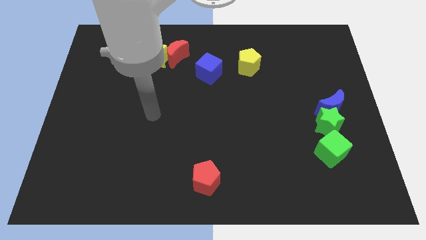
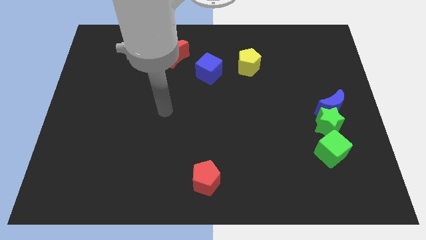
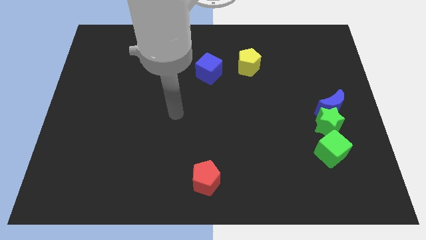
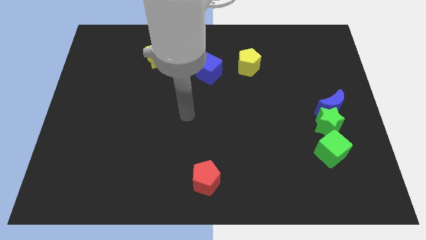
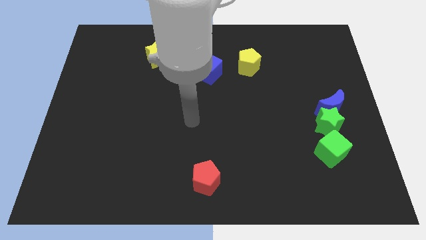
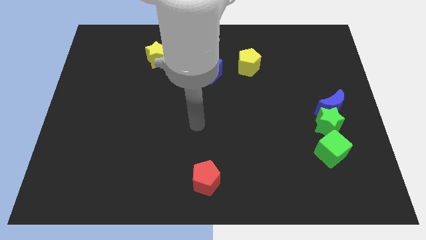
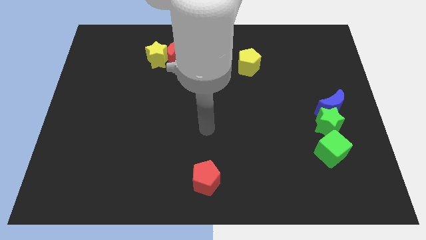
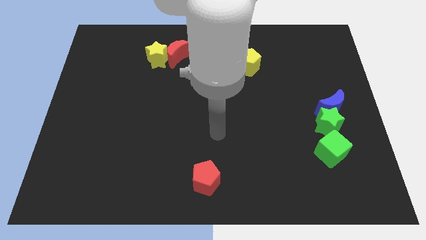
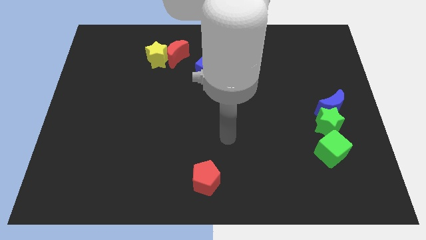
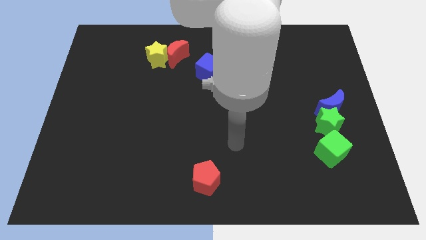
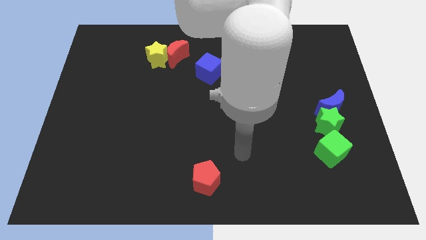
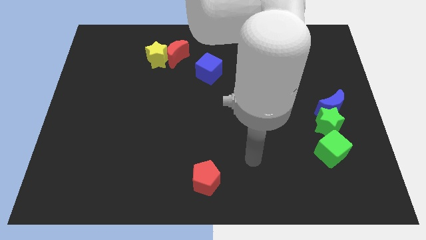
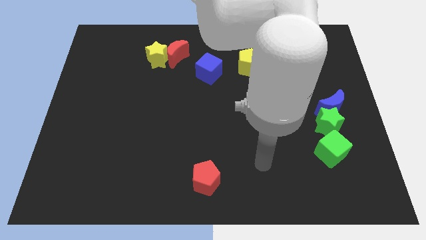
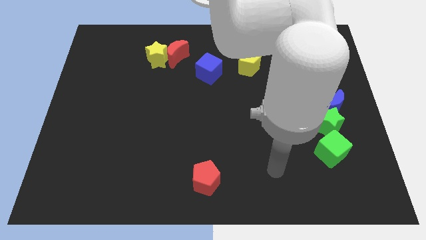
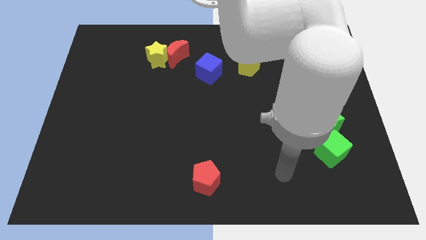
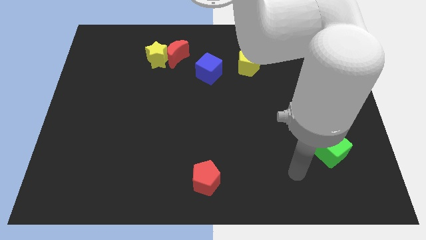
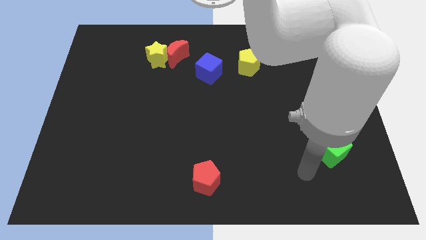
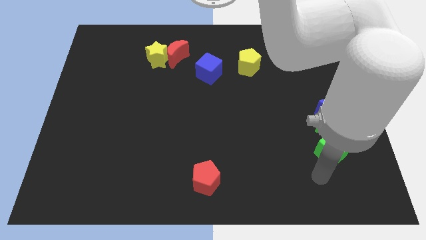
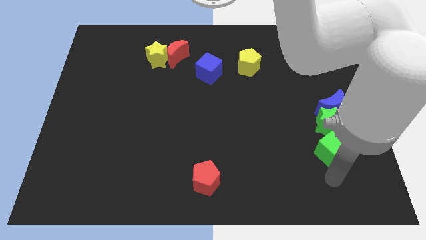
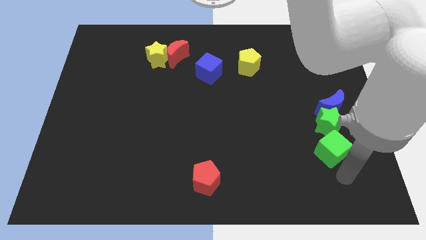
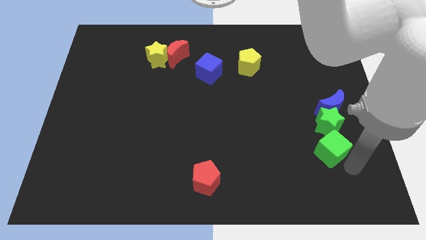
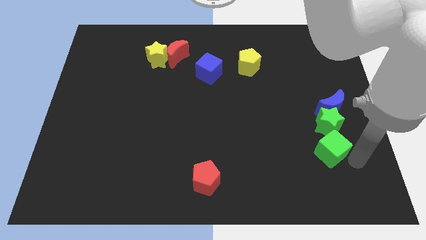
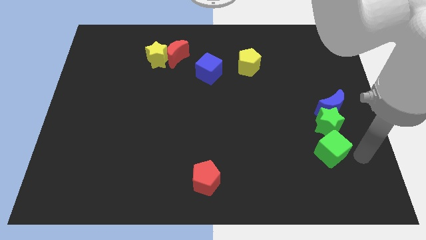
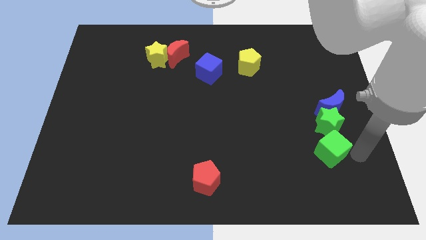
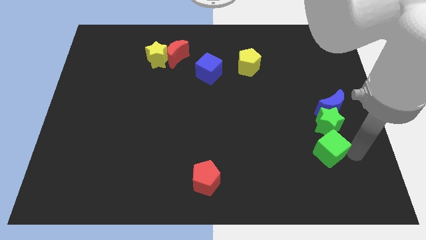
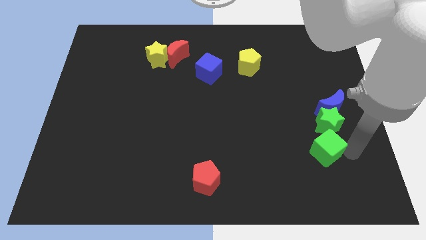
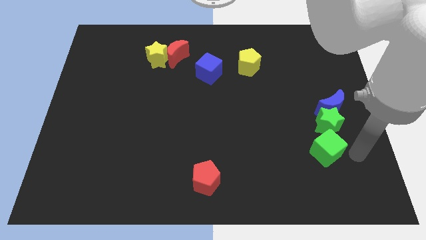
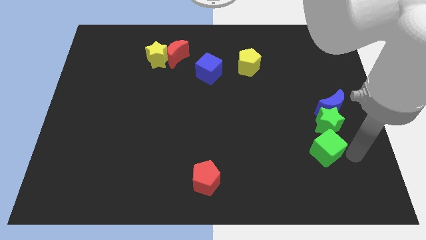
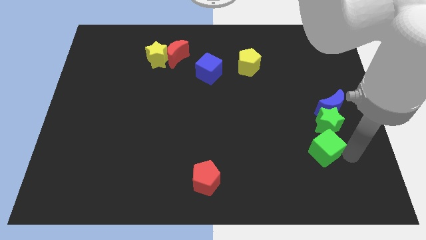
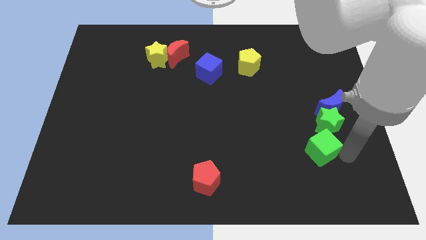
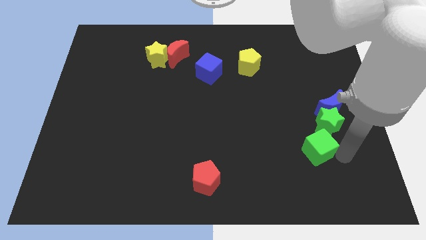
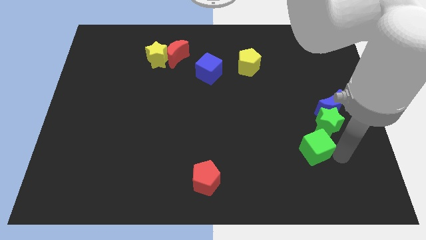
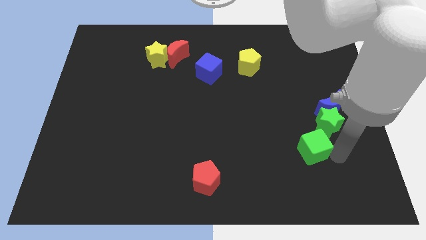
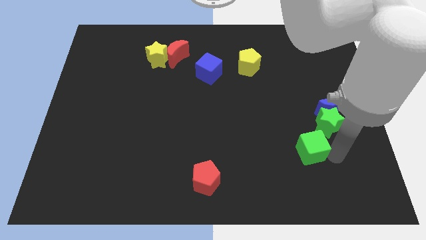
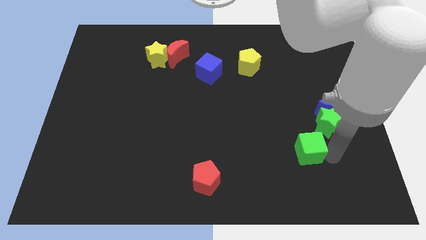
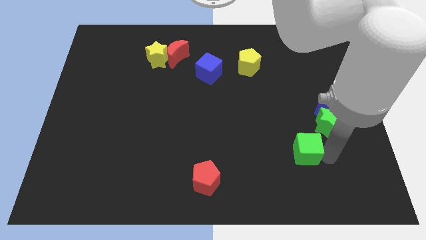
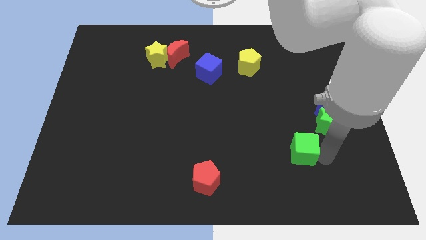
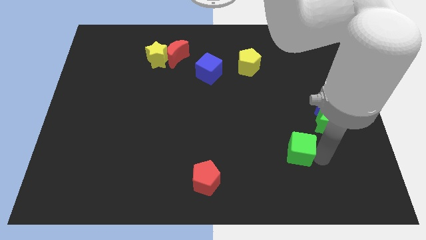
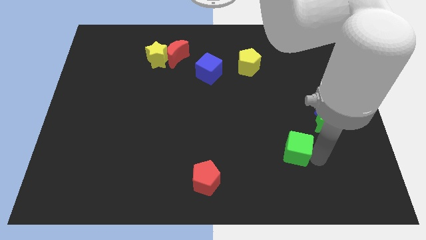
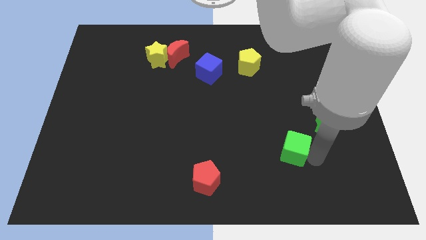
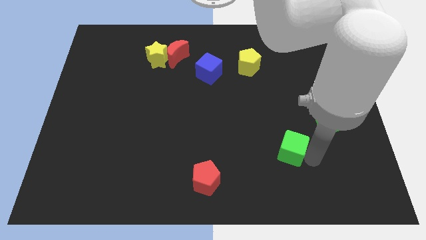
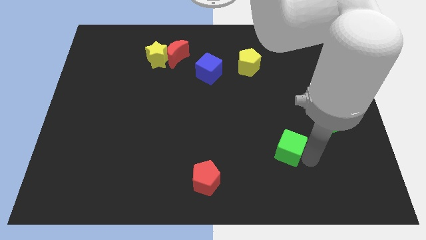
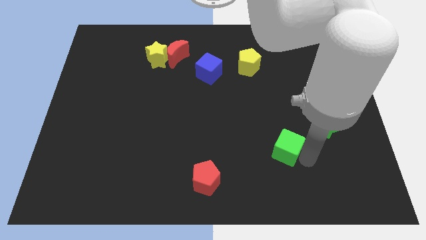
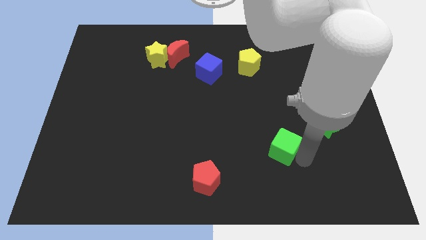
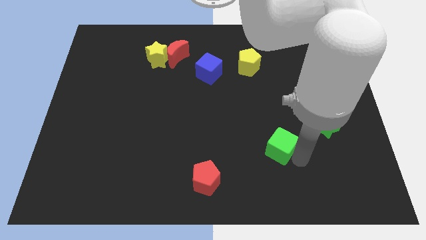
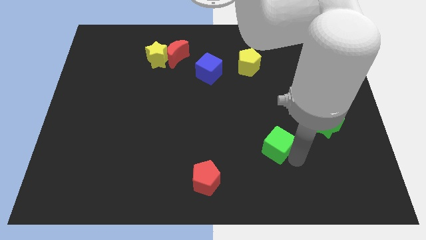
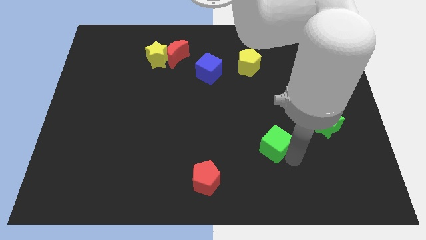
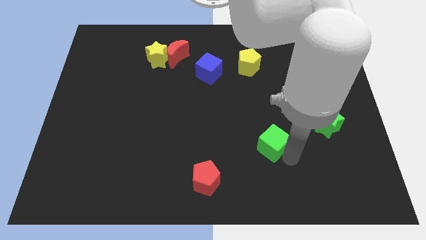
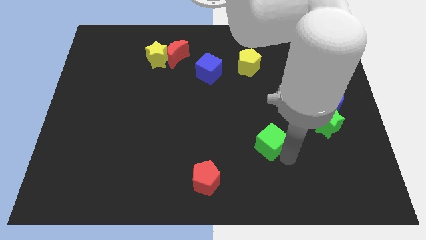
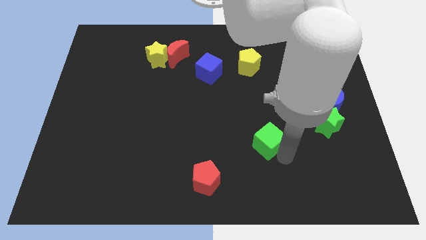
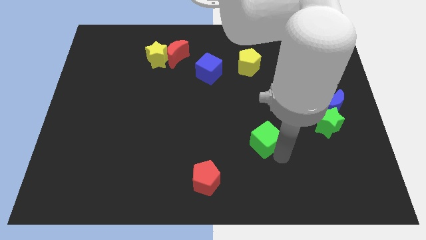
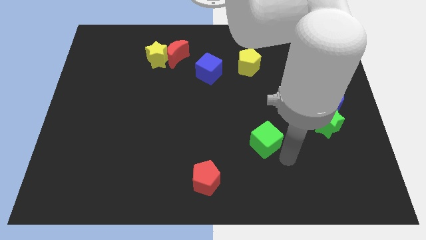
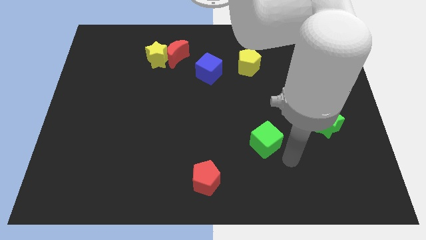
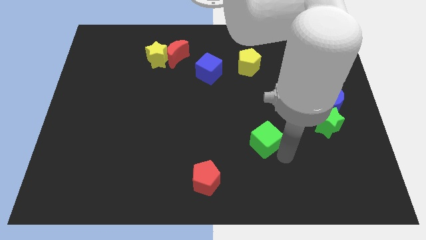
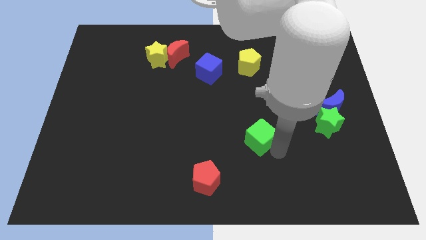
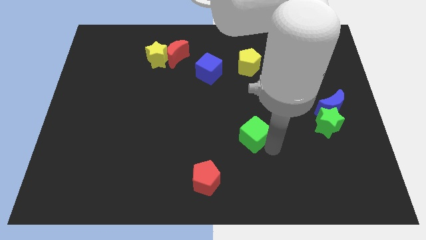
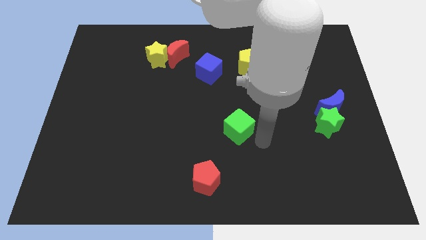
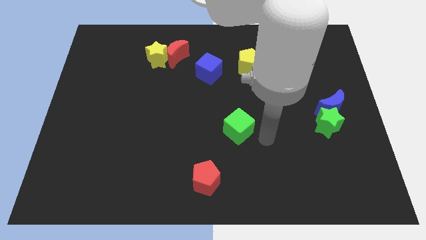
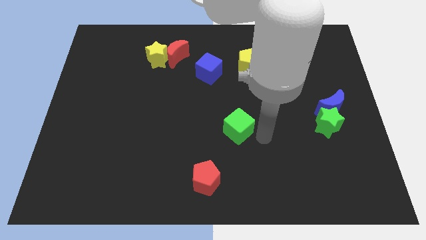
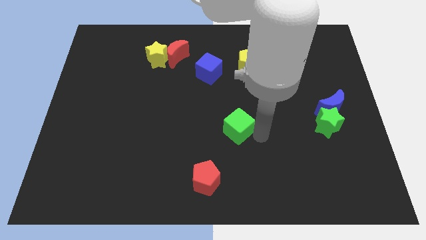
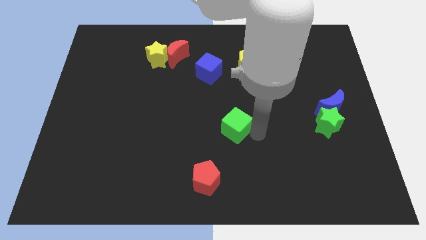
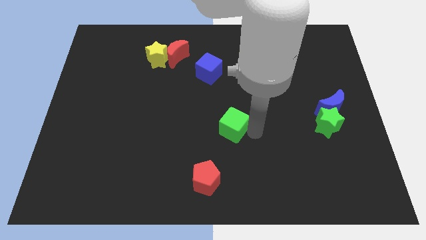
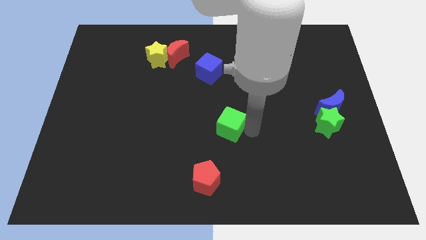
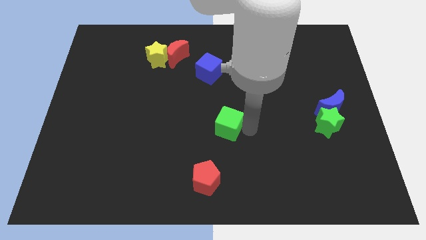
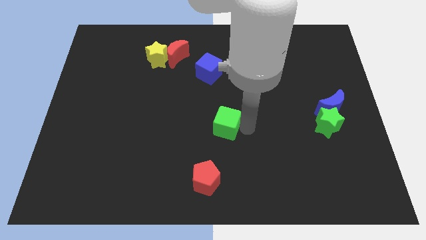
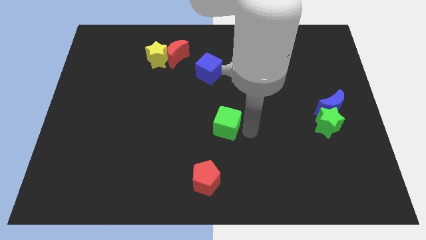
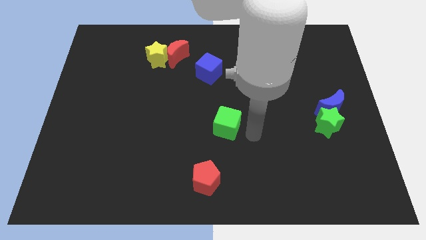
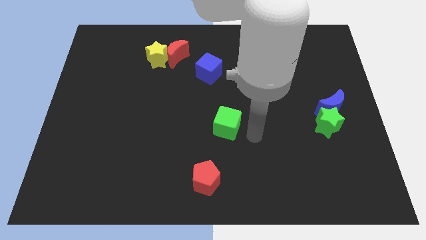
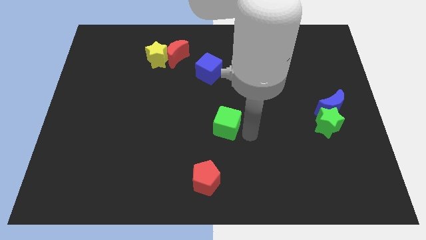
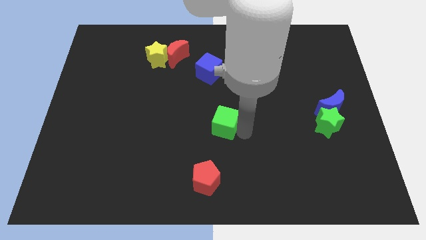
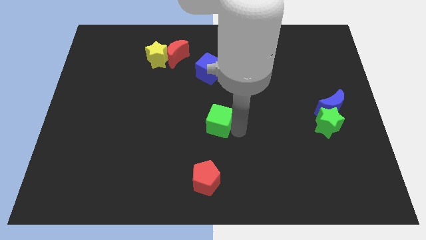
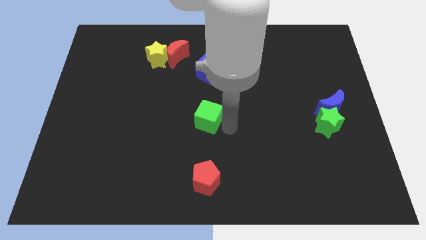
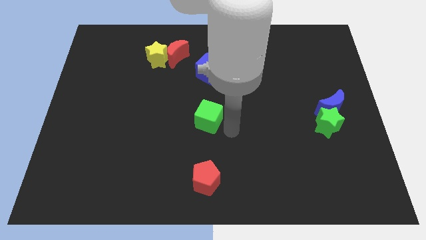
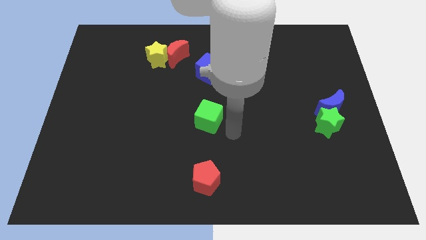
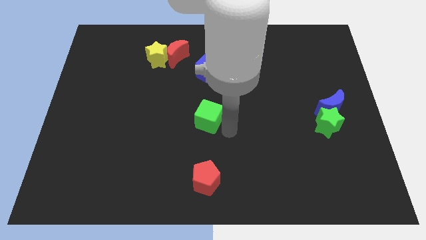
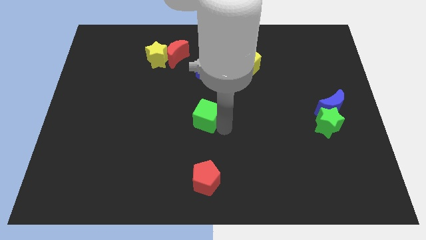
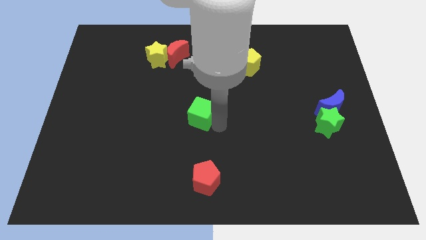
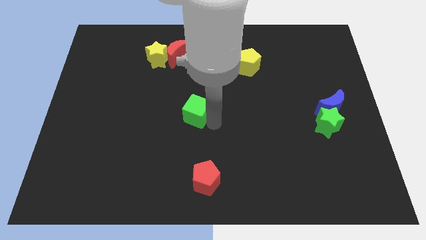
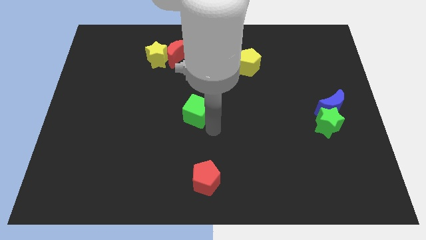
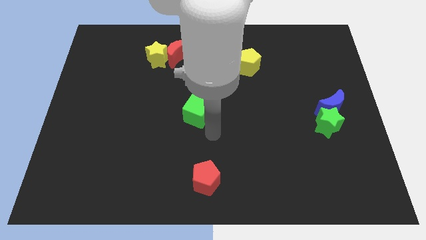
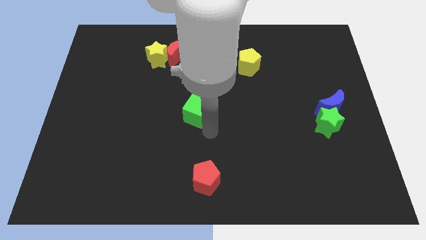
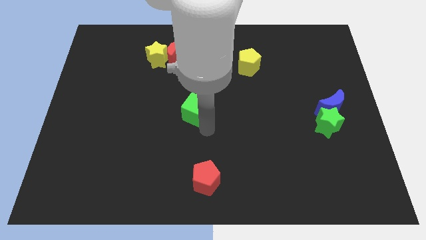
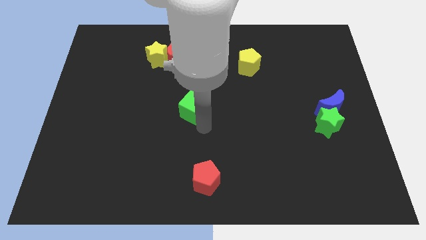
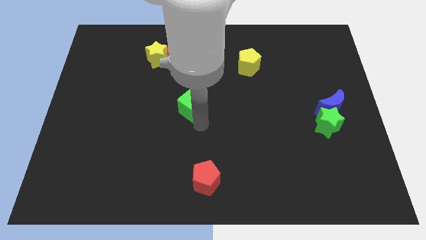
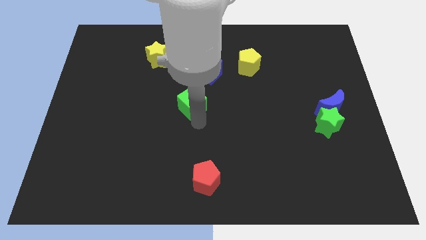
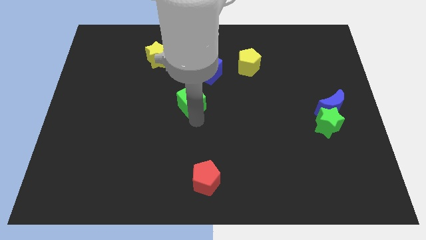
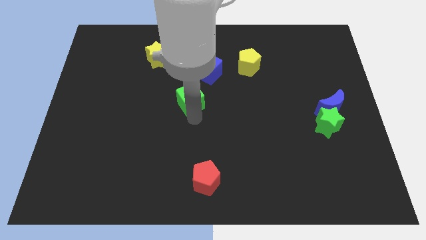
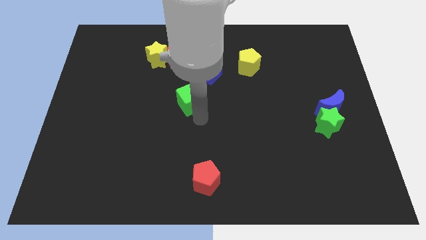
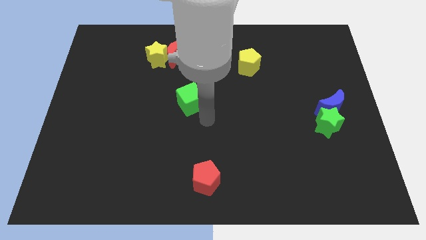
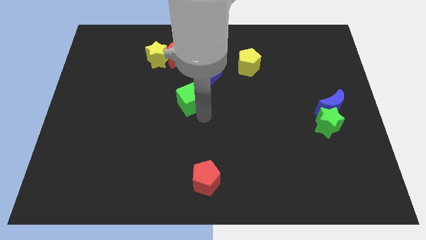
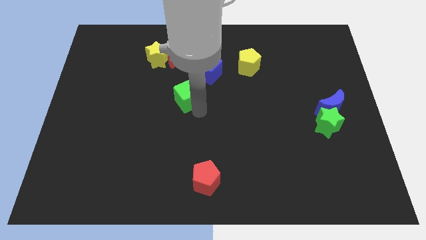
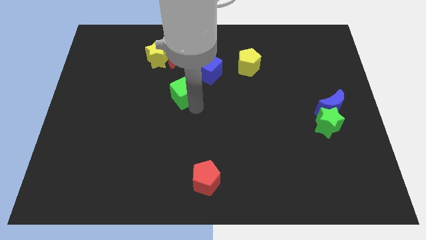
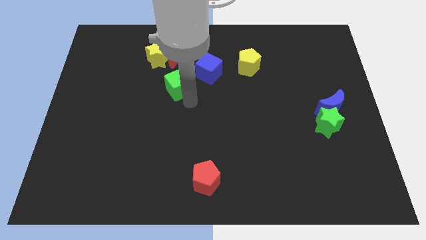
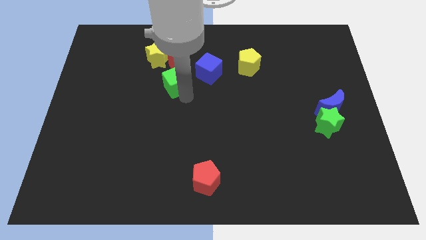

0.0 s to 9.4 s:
move the green cube to the left side of the blue cube
